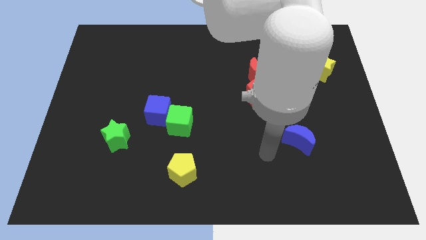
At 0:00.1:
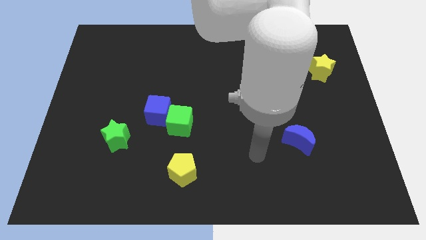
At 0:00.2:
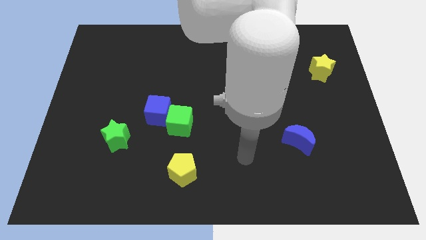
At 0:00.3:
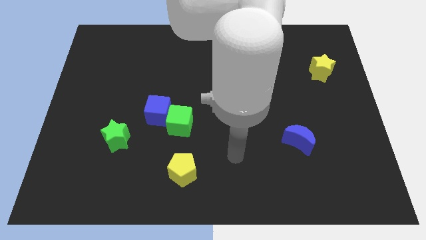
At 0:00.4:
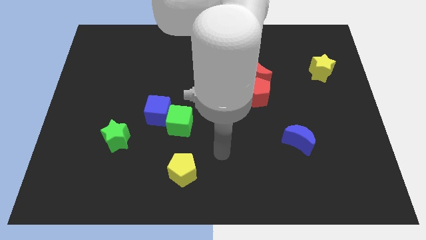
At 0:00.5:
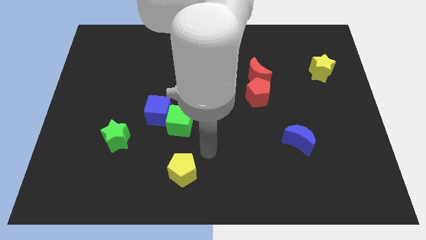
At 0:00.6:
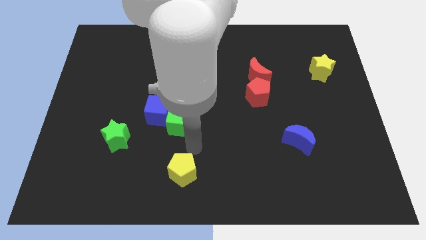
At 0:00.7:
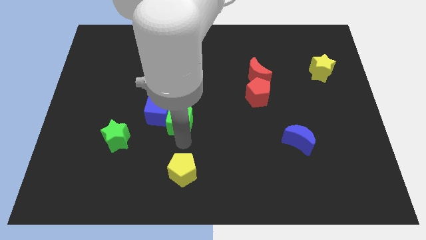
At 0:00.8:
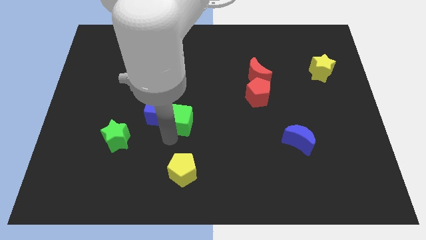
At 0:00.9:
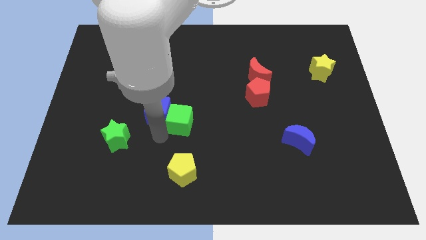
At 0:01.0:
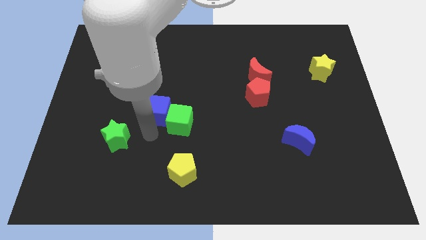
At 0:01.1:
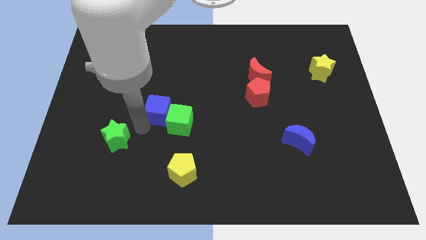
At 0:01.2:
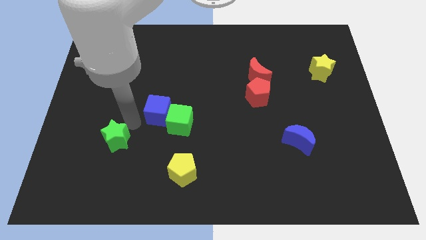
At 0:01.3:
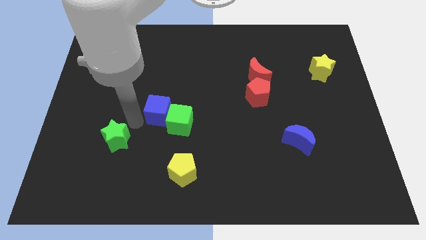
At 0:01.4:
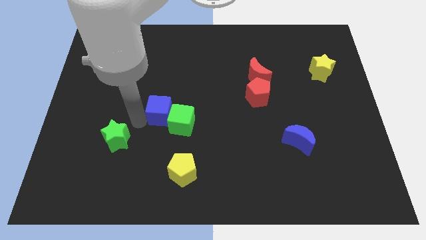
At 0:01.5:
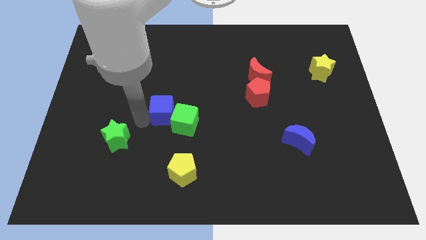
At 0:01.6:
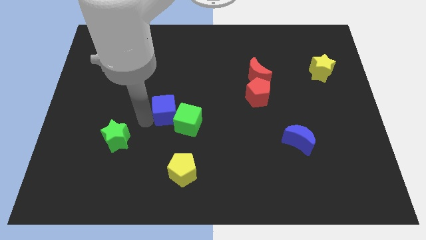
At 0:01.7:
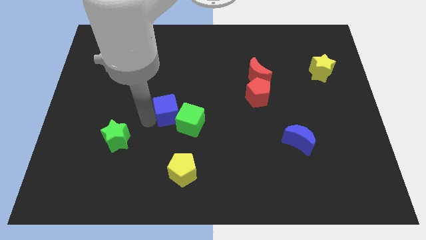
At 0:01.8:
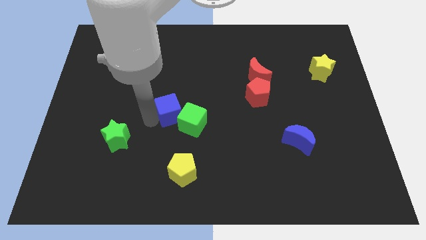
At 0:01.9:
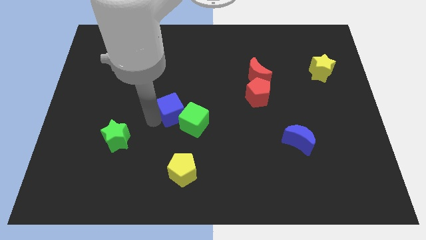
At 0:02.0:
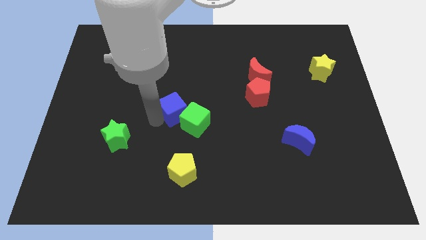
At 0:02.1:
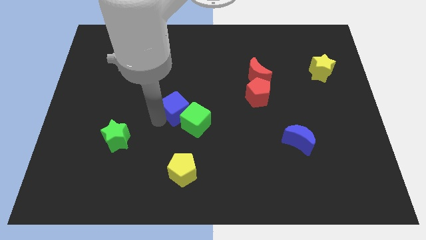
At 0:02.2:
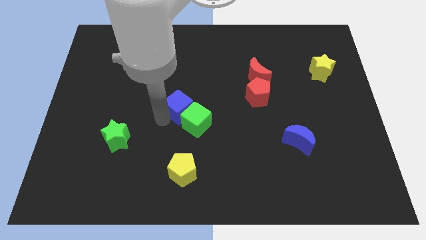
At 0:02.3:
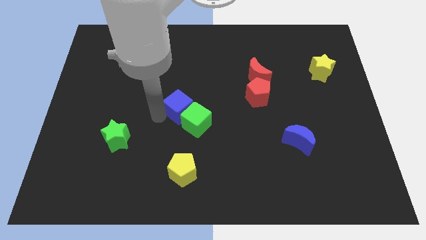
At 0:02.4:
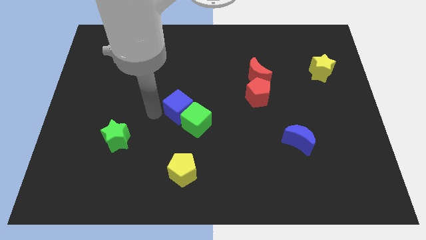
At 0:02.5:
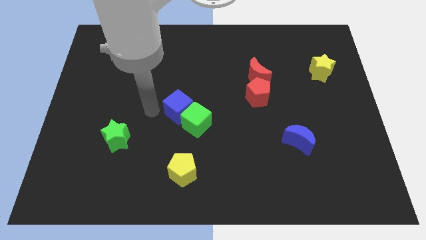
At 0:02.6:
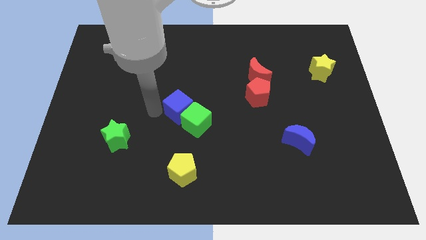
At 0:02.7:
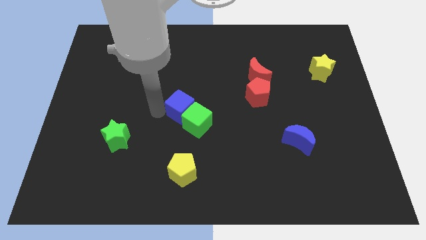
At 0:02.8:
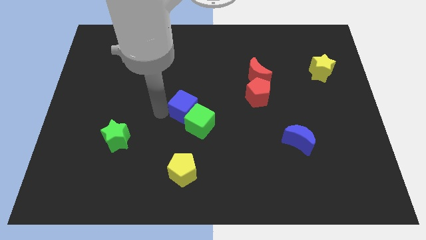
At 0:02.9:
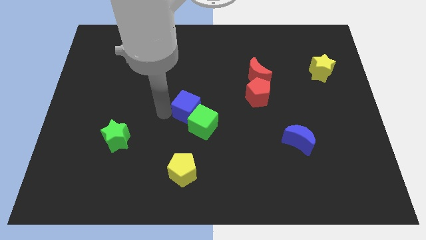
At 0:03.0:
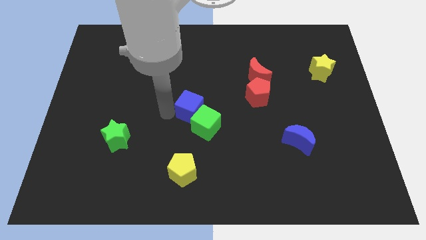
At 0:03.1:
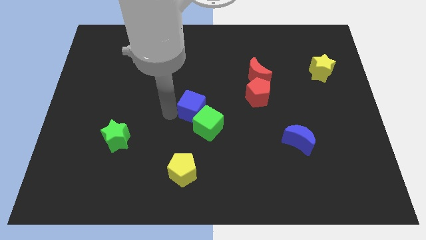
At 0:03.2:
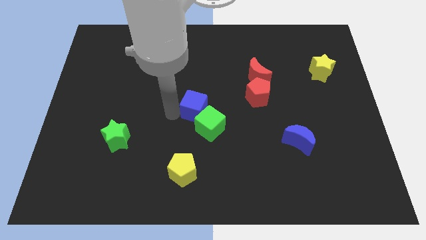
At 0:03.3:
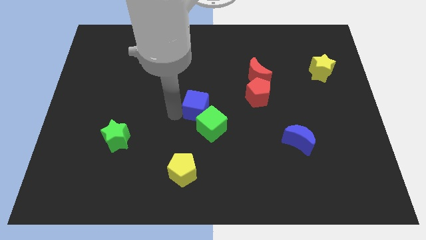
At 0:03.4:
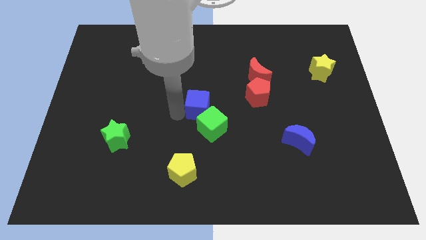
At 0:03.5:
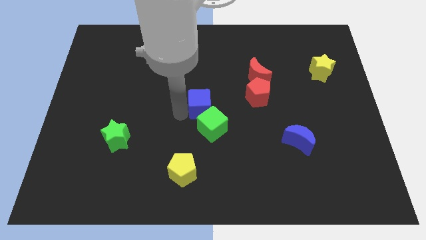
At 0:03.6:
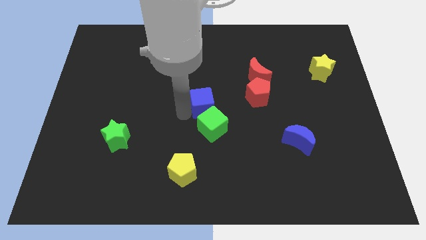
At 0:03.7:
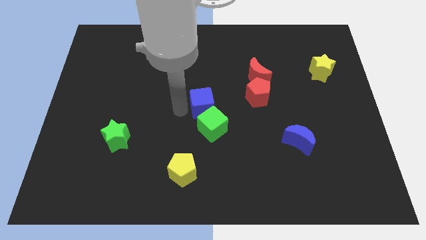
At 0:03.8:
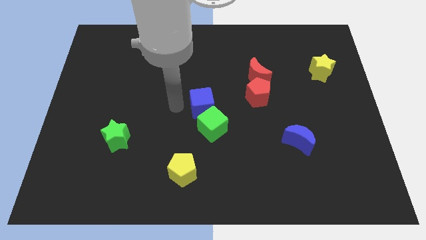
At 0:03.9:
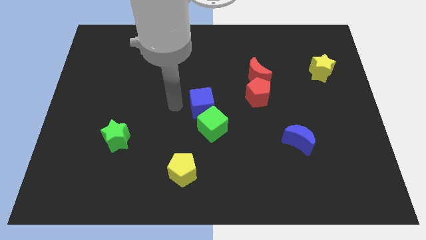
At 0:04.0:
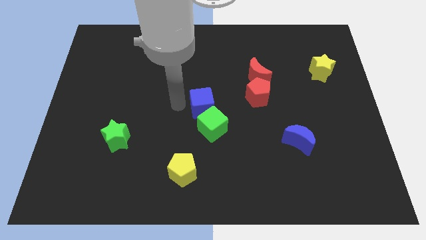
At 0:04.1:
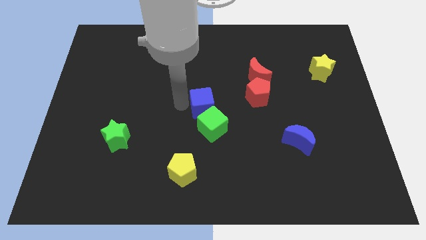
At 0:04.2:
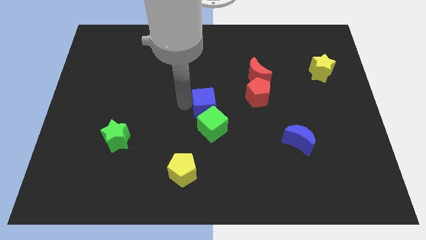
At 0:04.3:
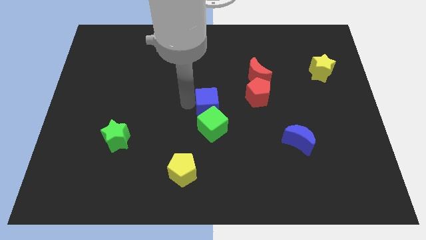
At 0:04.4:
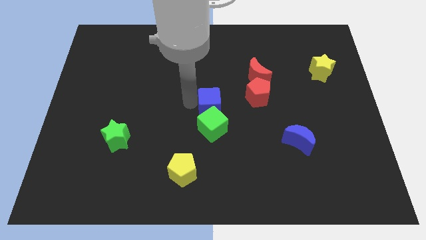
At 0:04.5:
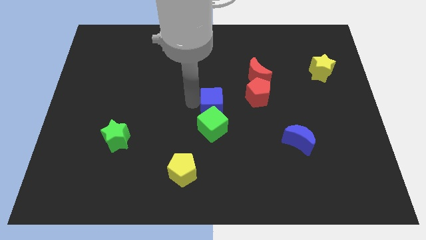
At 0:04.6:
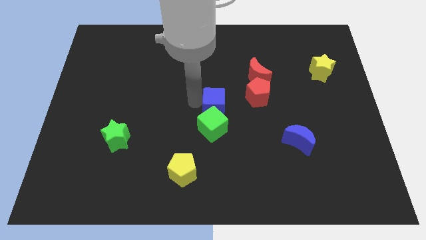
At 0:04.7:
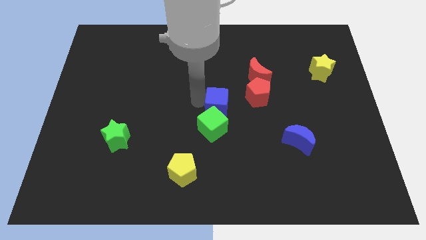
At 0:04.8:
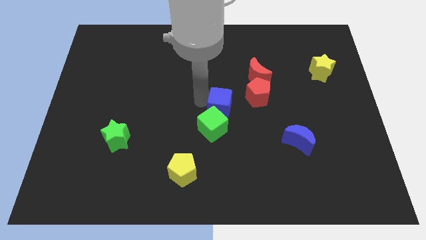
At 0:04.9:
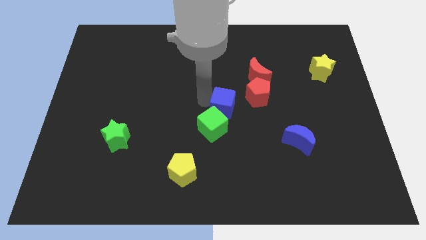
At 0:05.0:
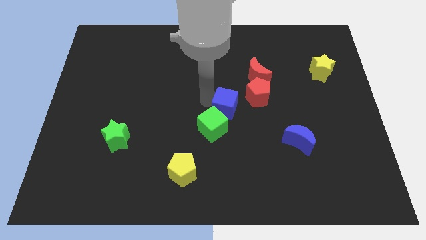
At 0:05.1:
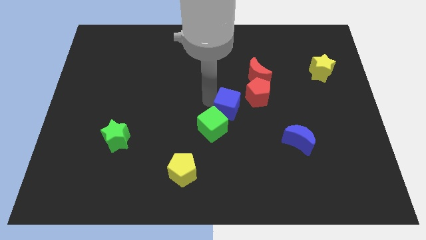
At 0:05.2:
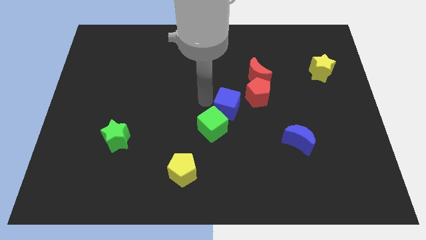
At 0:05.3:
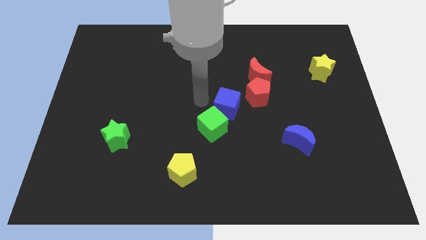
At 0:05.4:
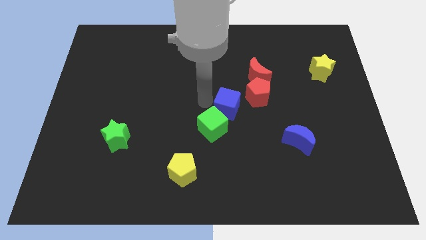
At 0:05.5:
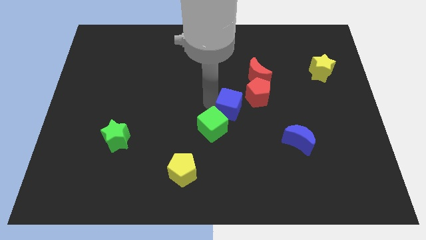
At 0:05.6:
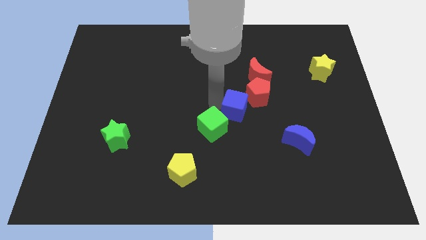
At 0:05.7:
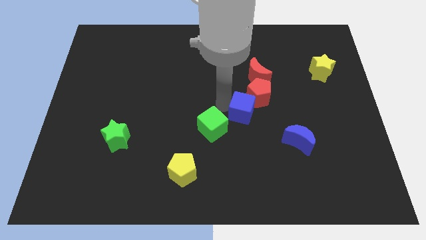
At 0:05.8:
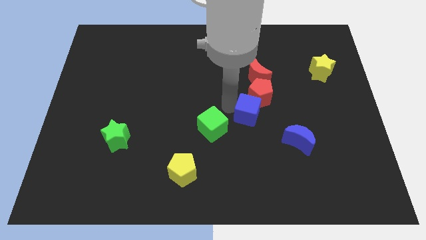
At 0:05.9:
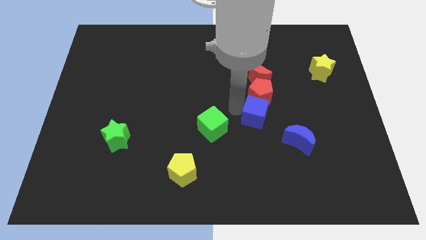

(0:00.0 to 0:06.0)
move the blue cube to the top left side of the blue moon

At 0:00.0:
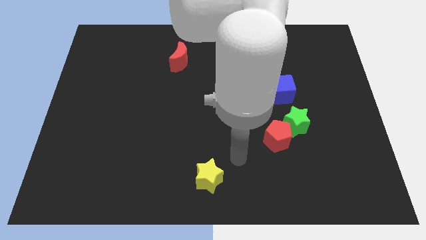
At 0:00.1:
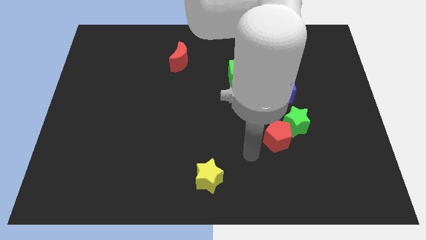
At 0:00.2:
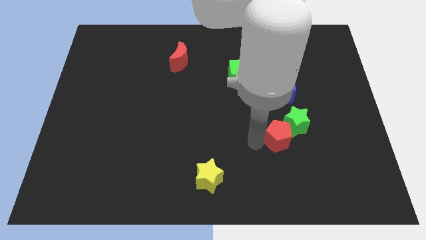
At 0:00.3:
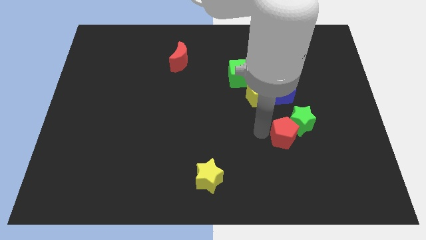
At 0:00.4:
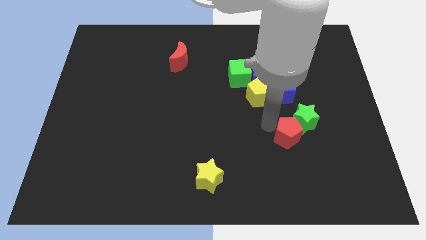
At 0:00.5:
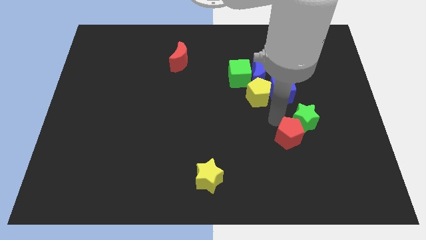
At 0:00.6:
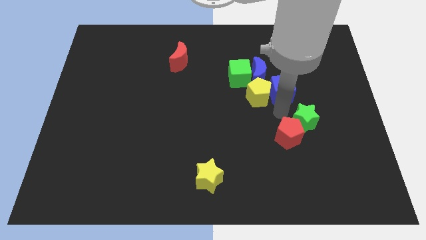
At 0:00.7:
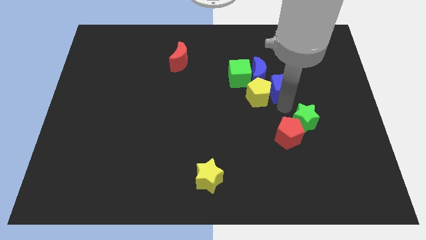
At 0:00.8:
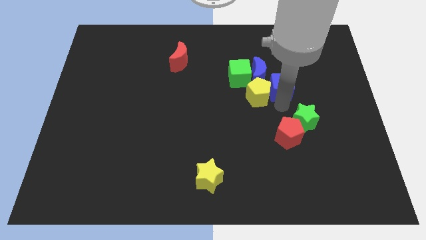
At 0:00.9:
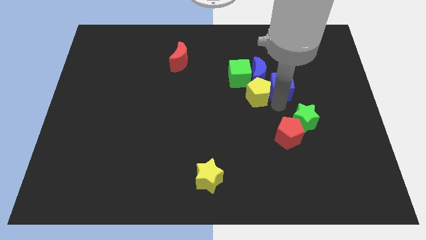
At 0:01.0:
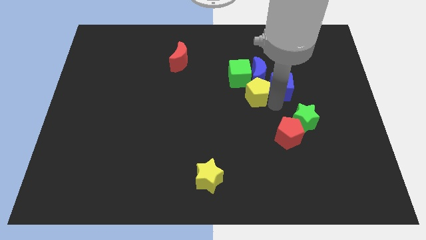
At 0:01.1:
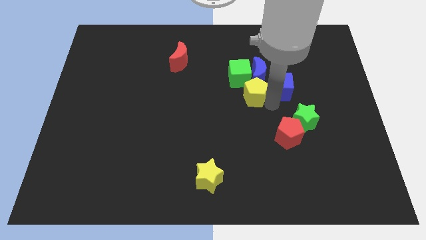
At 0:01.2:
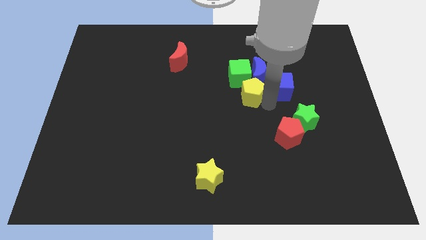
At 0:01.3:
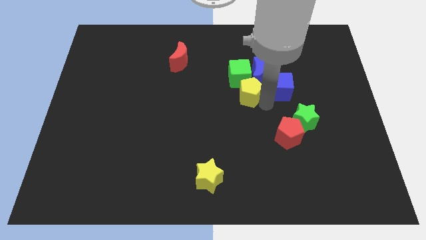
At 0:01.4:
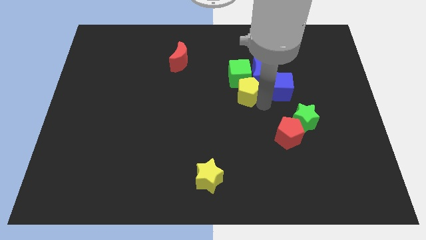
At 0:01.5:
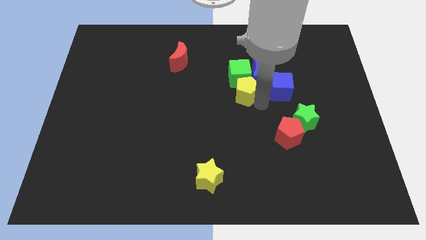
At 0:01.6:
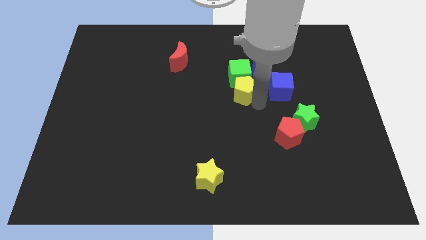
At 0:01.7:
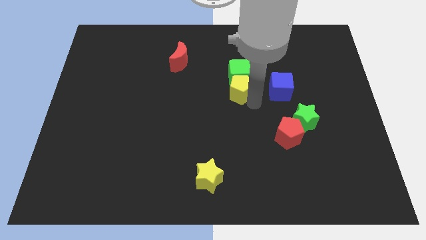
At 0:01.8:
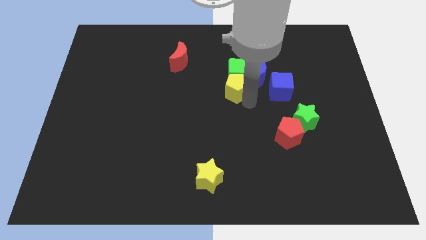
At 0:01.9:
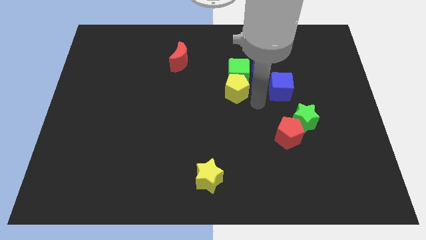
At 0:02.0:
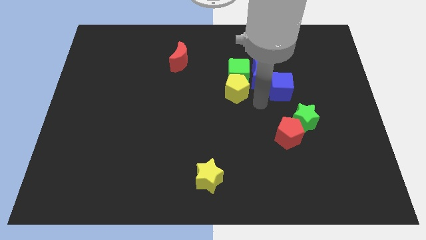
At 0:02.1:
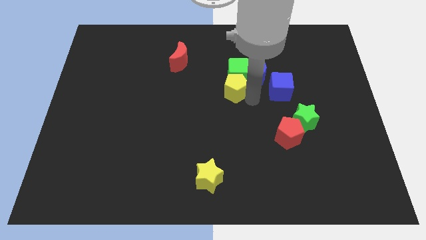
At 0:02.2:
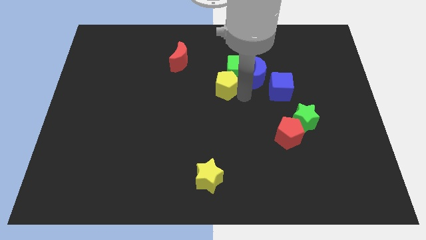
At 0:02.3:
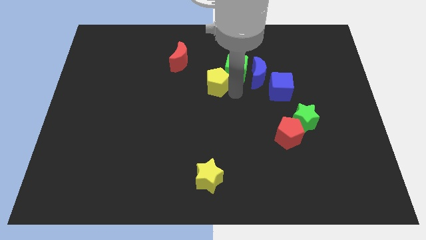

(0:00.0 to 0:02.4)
slide the yellow pentagon to the bottom right side of the red moon
